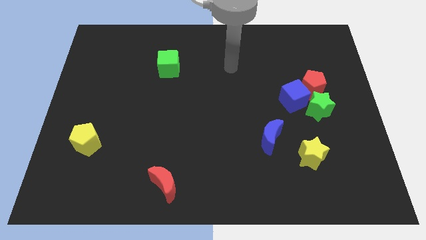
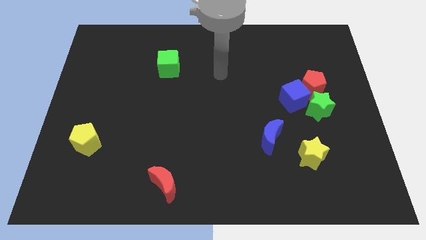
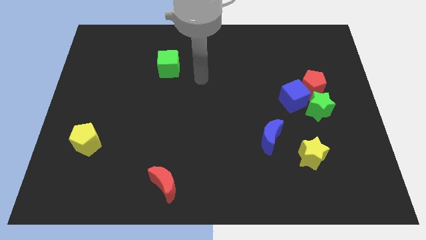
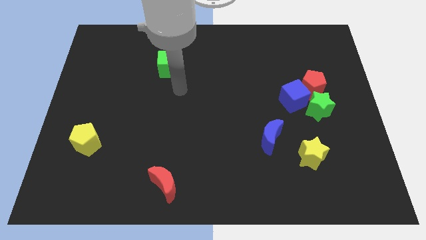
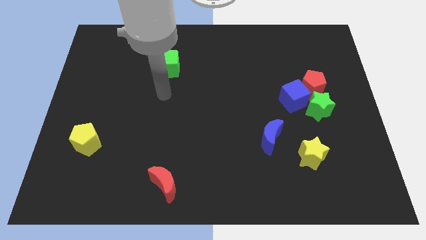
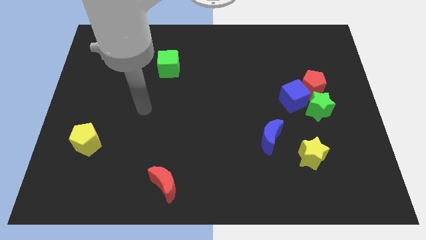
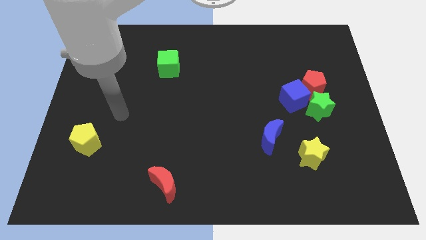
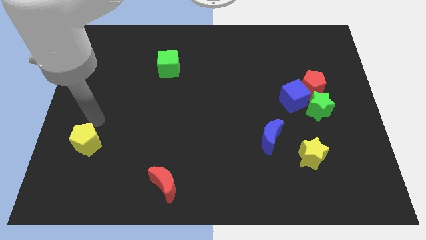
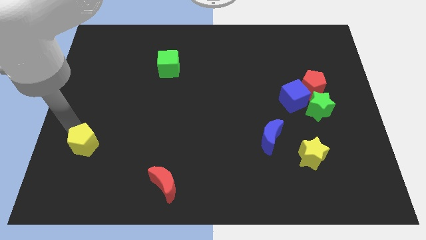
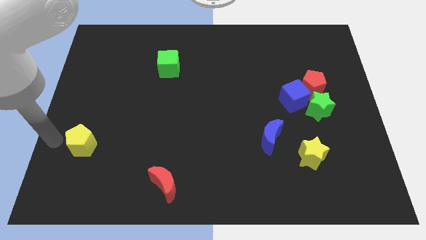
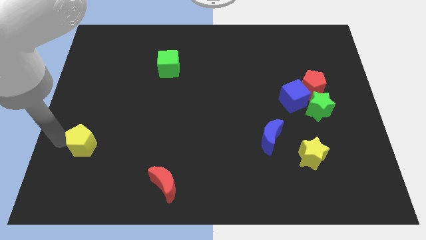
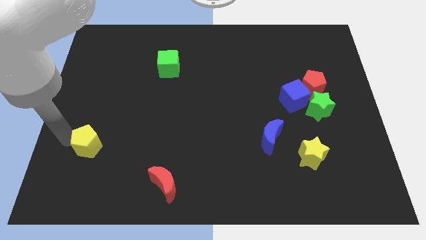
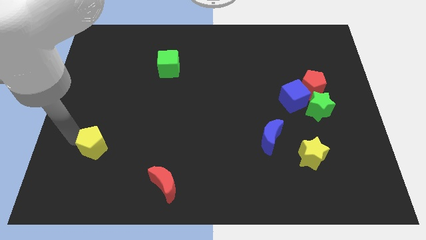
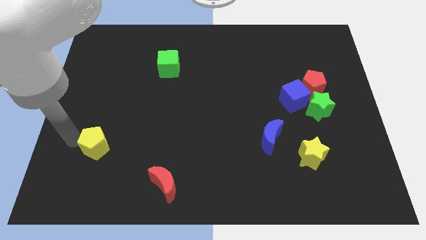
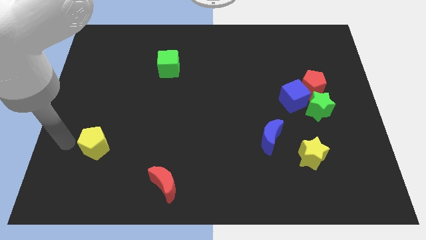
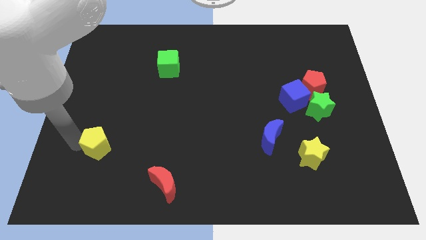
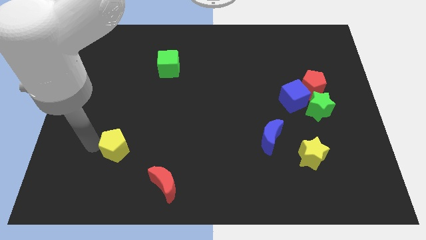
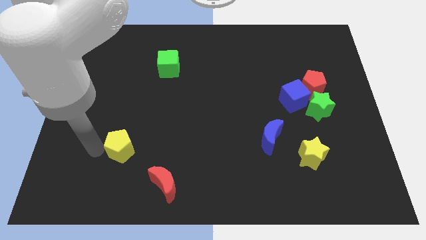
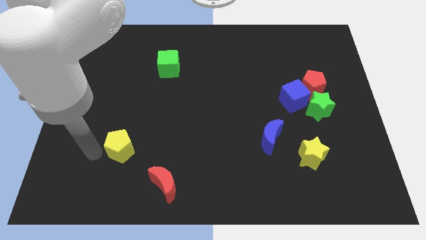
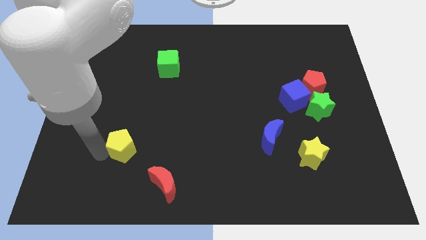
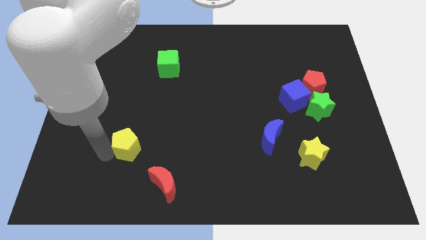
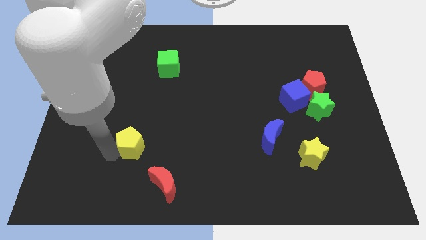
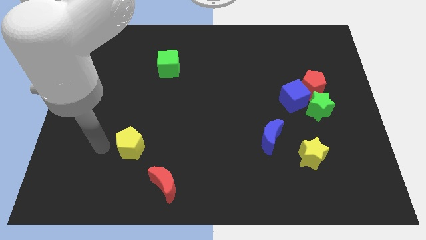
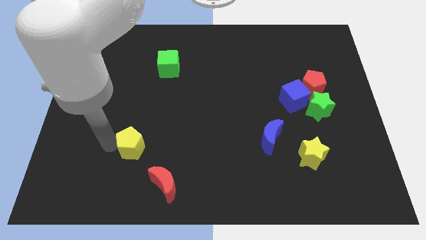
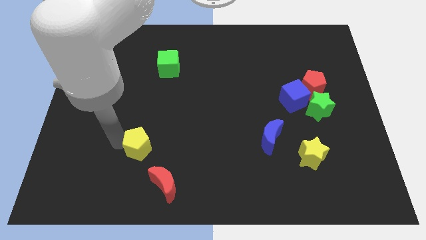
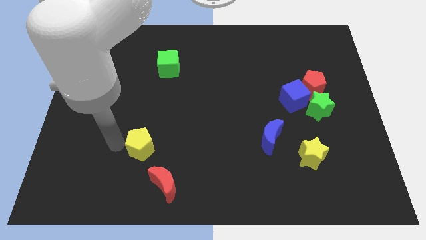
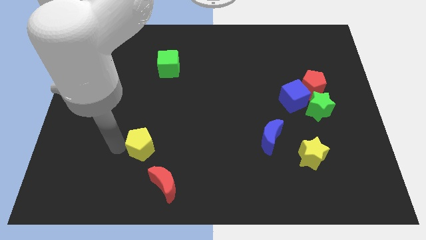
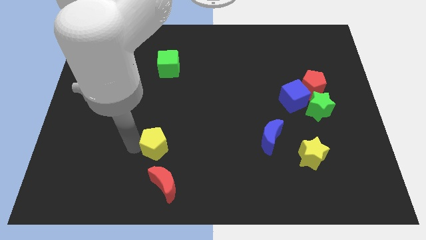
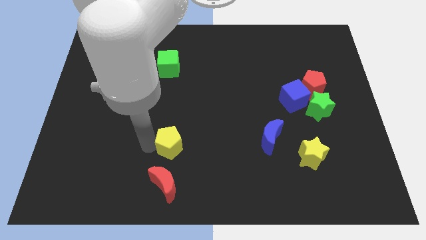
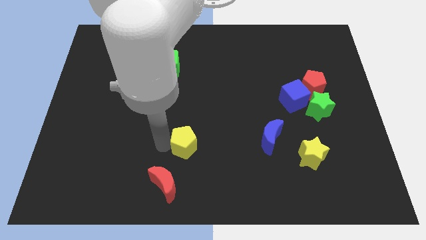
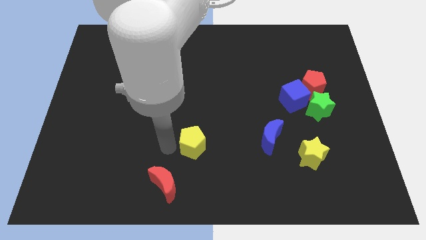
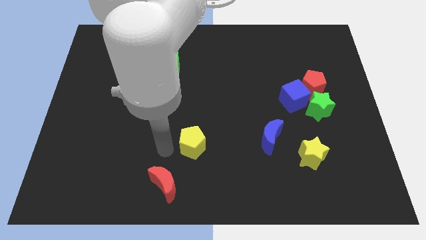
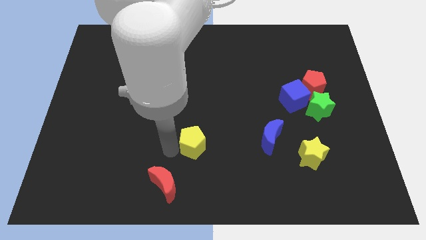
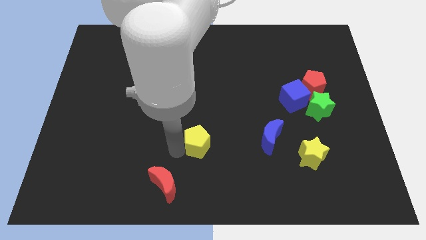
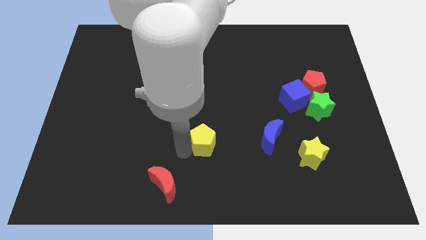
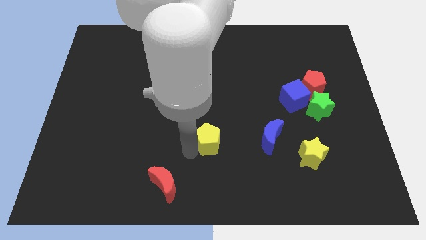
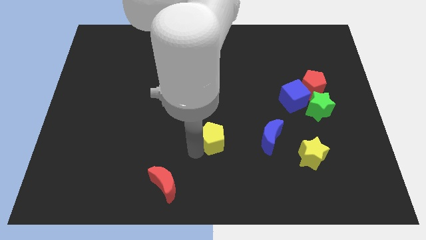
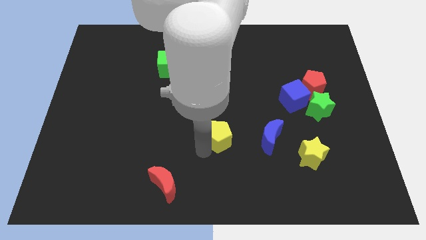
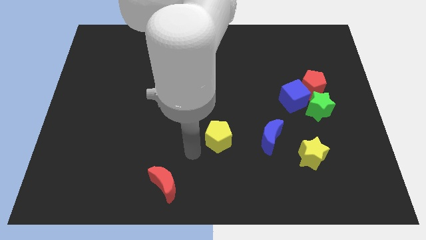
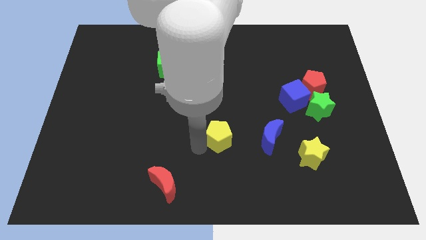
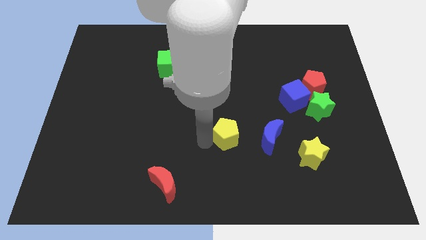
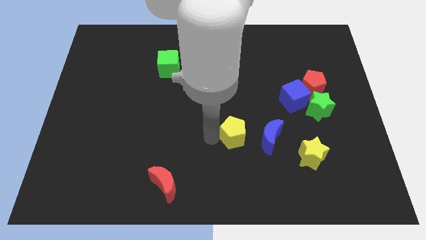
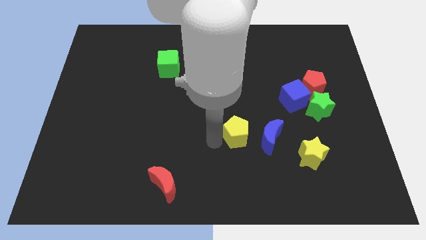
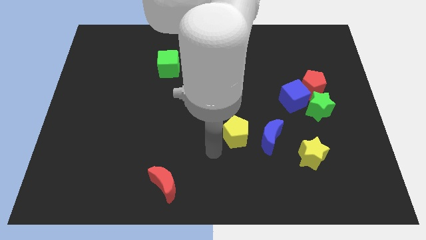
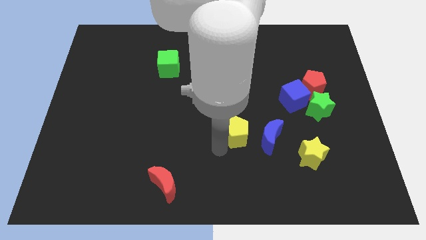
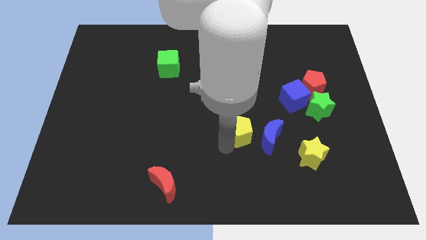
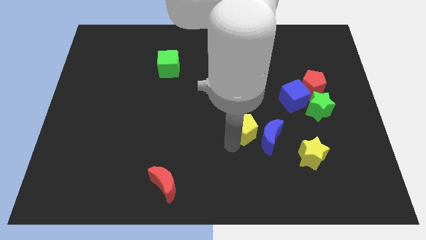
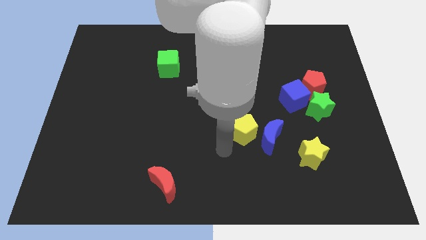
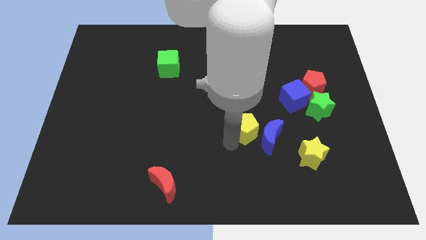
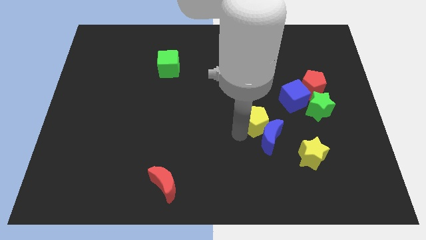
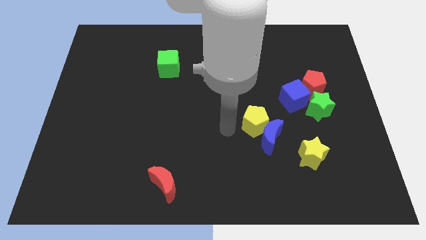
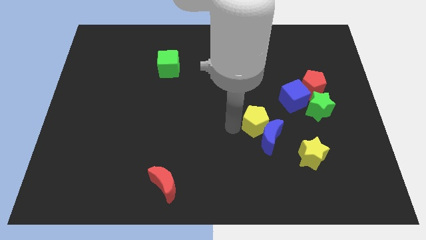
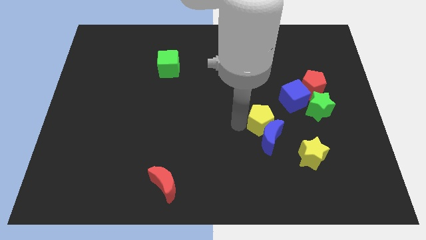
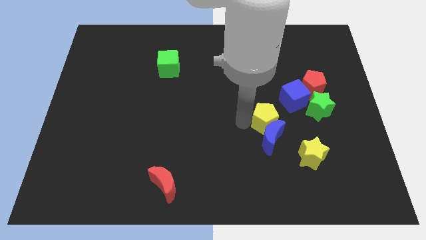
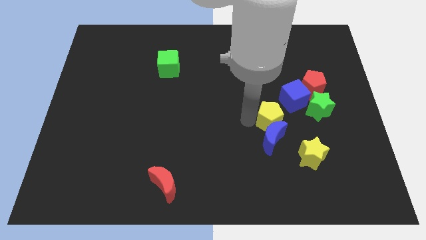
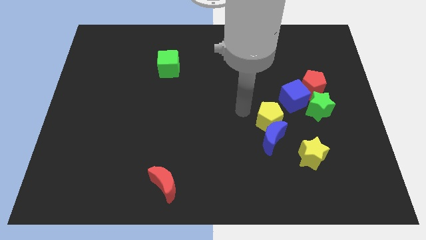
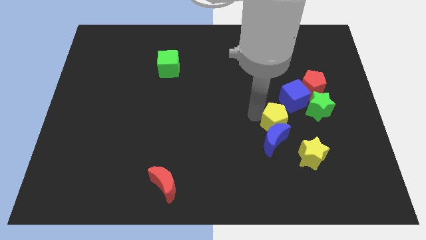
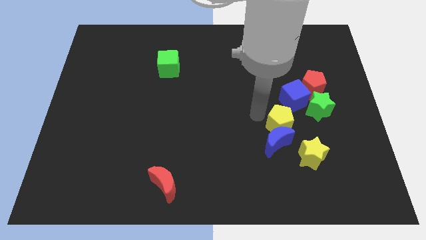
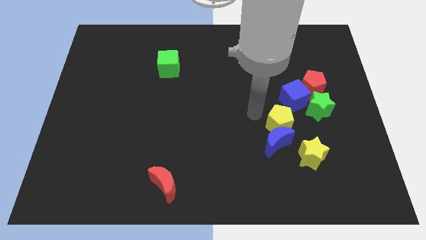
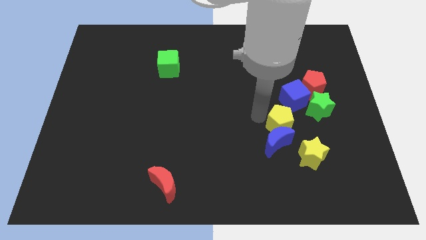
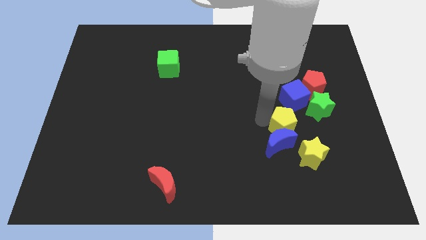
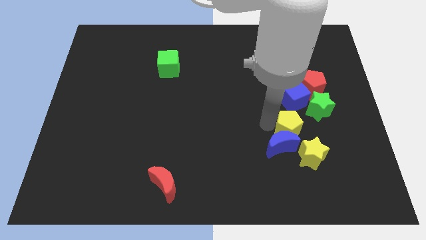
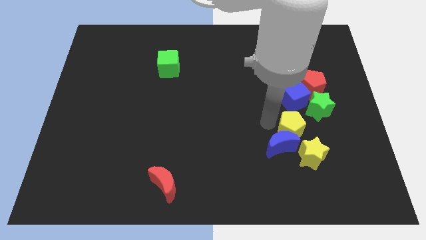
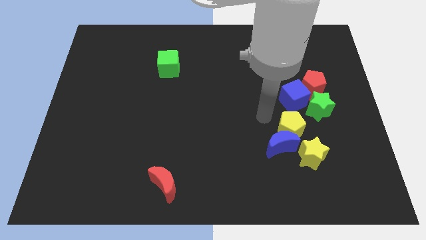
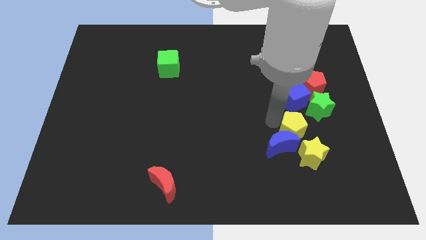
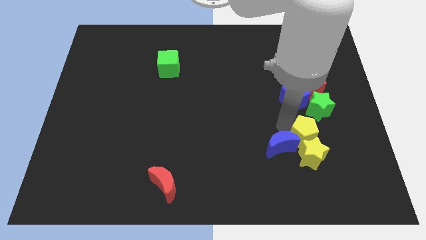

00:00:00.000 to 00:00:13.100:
put the yellow pentagon to the bottom of the green star
